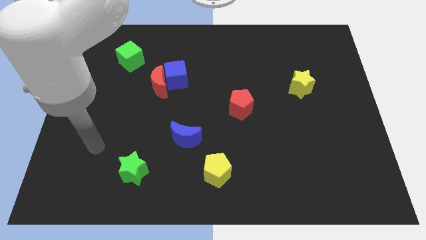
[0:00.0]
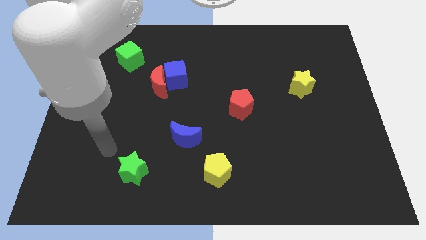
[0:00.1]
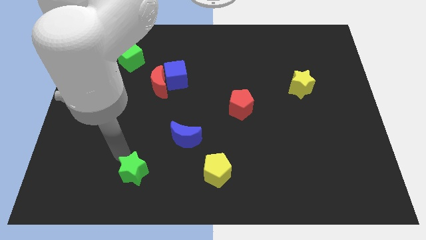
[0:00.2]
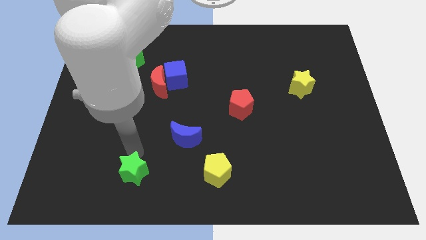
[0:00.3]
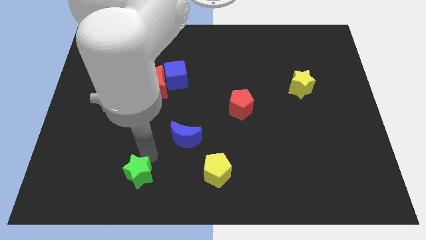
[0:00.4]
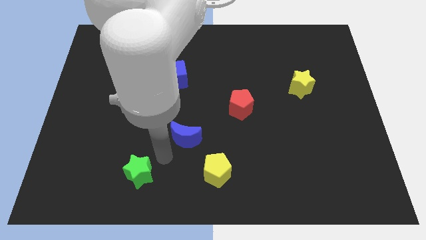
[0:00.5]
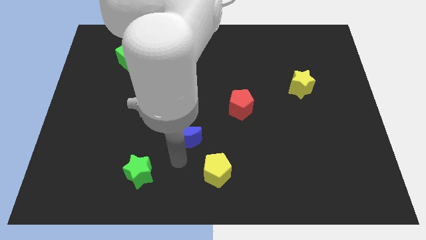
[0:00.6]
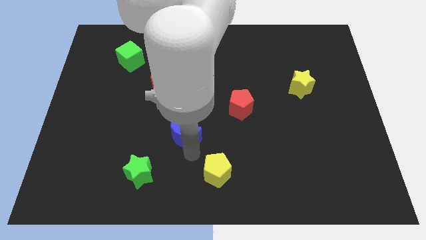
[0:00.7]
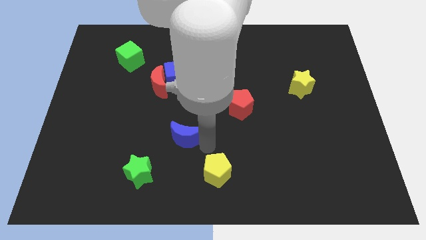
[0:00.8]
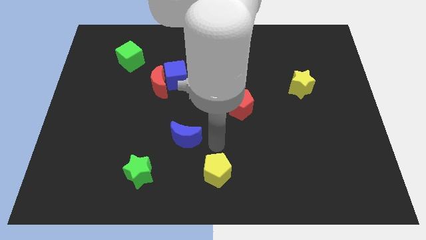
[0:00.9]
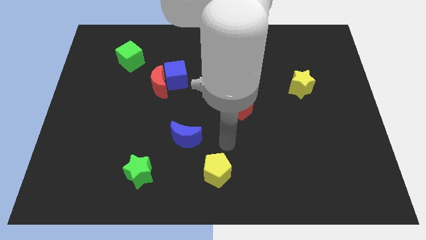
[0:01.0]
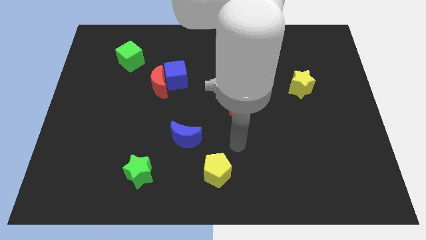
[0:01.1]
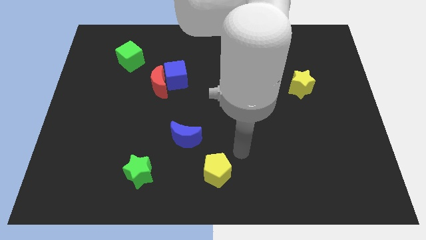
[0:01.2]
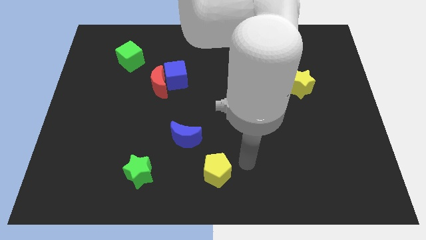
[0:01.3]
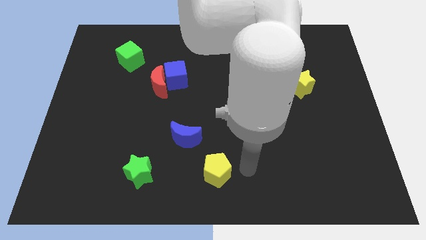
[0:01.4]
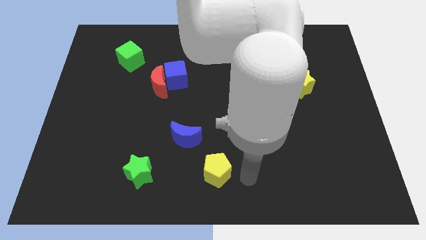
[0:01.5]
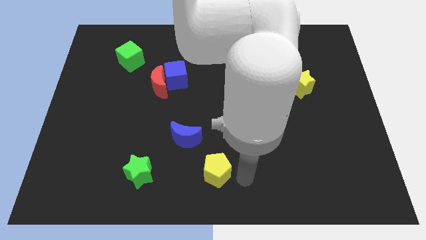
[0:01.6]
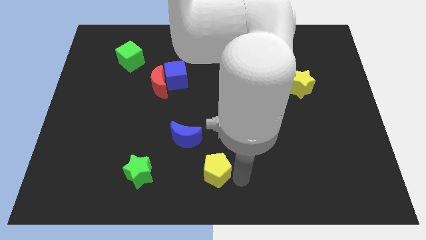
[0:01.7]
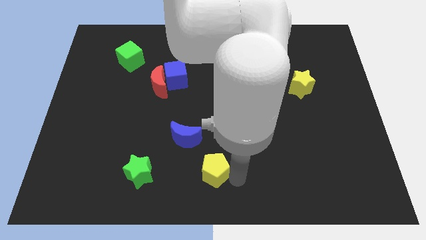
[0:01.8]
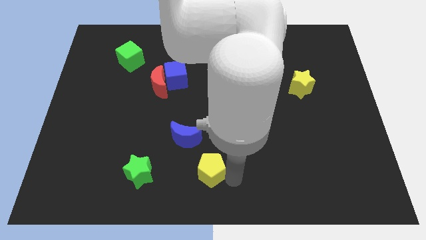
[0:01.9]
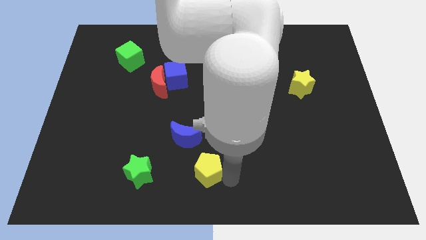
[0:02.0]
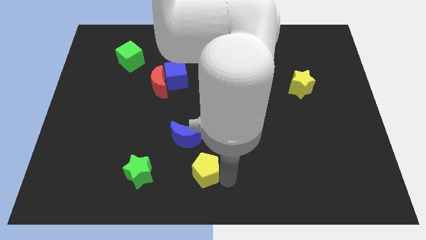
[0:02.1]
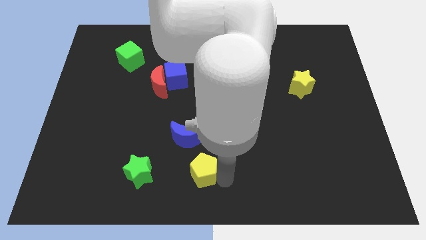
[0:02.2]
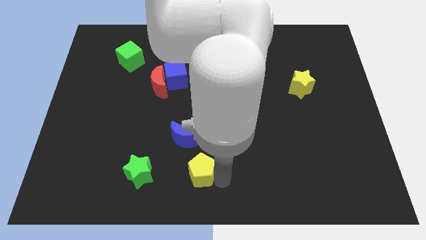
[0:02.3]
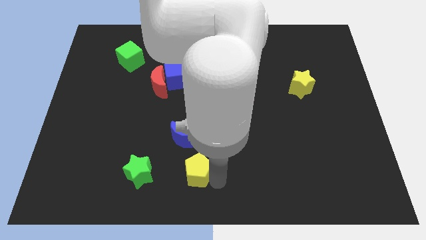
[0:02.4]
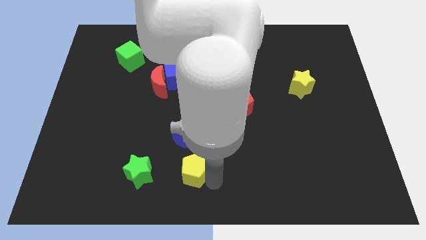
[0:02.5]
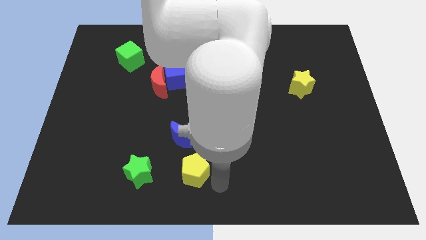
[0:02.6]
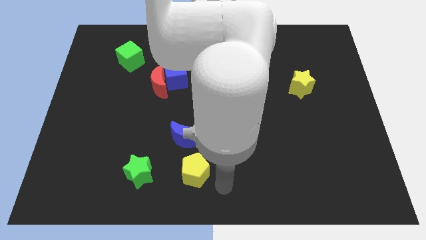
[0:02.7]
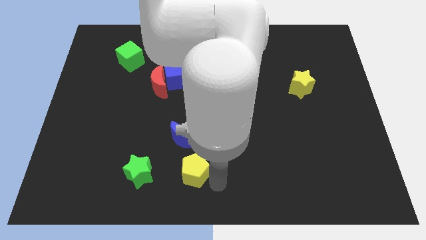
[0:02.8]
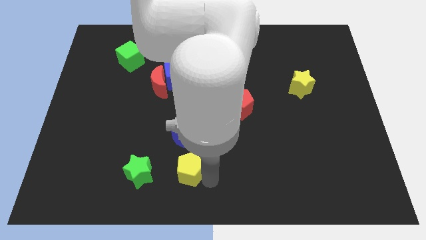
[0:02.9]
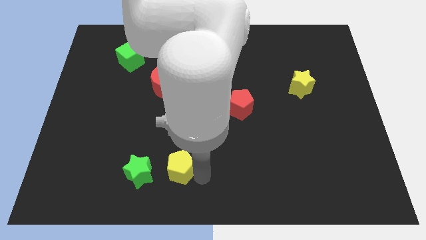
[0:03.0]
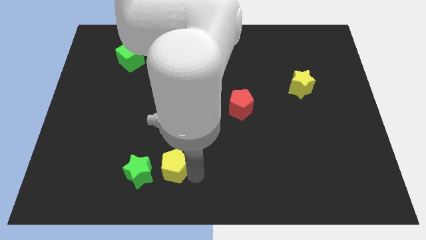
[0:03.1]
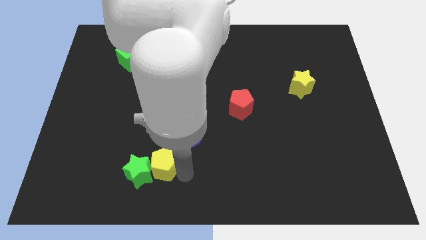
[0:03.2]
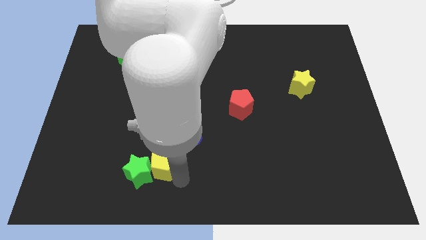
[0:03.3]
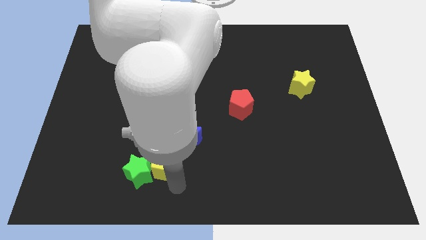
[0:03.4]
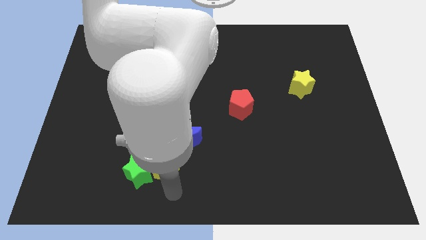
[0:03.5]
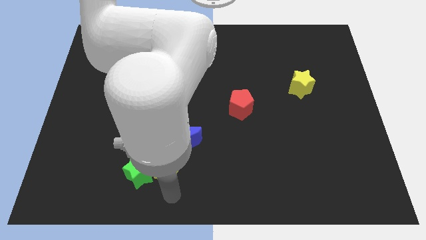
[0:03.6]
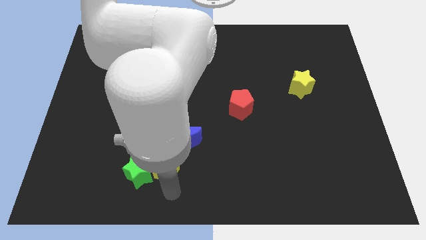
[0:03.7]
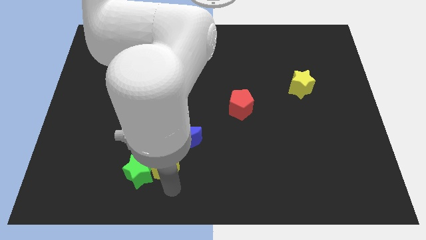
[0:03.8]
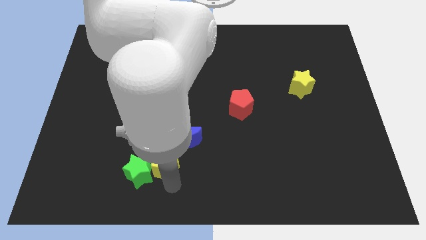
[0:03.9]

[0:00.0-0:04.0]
slide the yellow pentagon upwards and left a bit

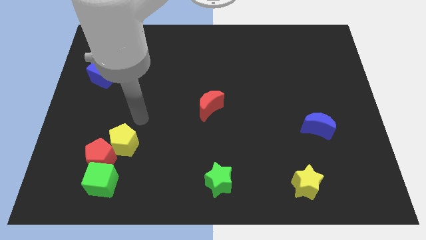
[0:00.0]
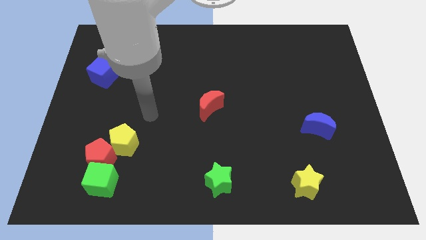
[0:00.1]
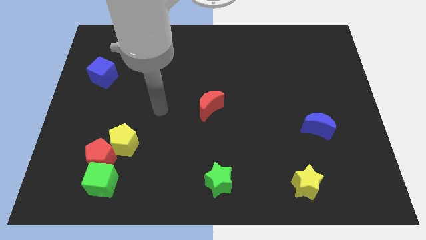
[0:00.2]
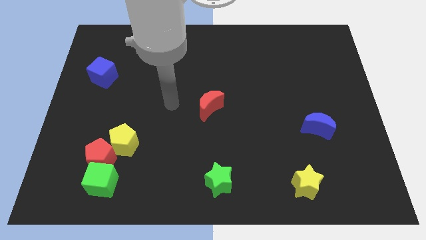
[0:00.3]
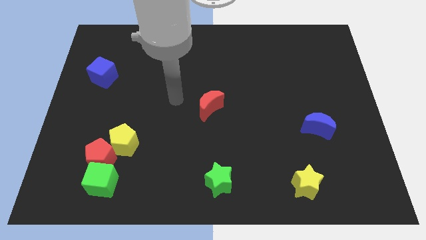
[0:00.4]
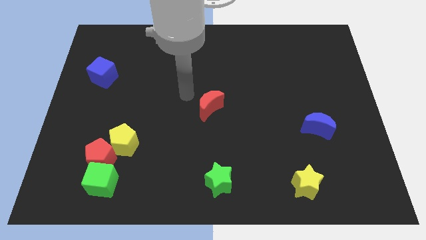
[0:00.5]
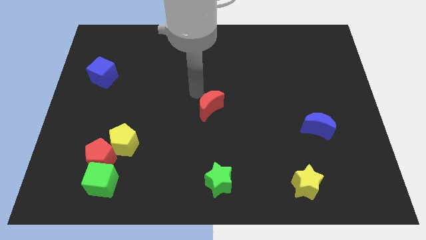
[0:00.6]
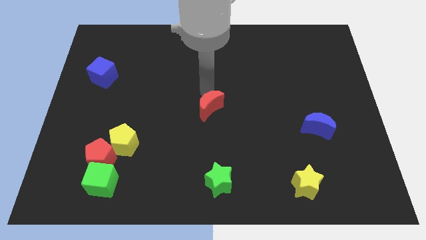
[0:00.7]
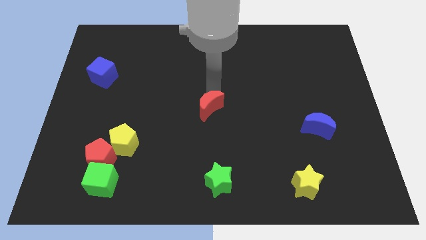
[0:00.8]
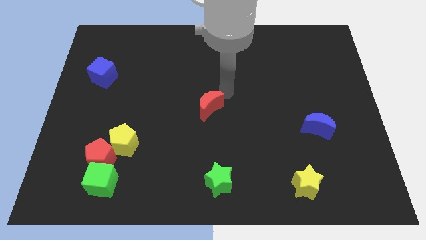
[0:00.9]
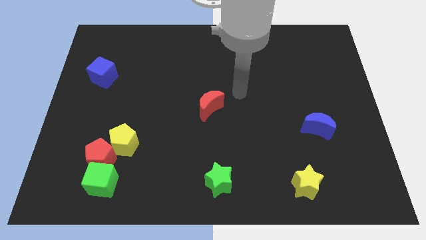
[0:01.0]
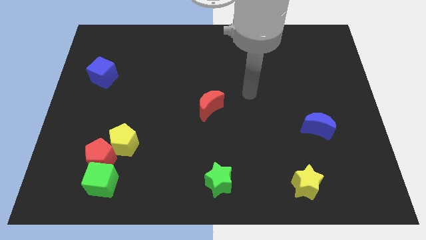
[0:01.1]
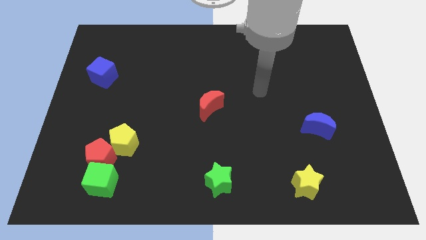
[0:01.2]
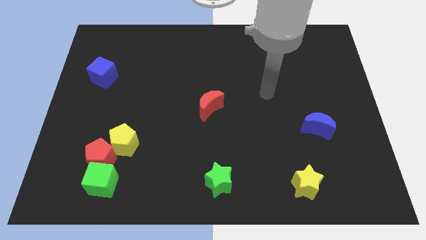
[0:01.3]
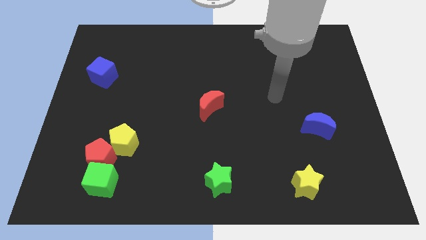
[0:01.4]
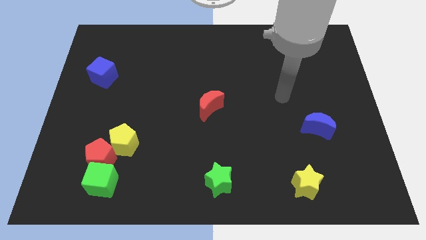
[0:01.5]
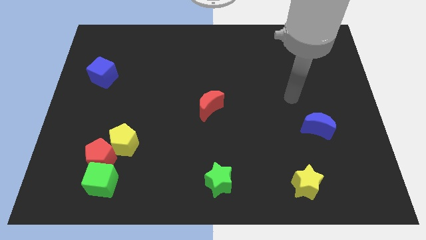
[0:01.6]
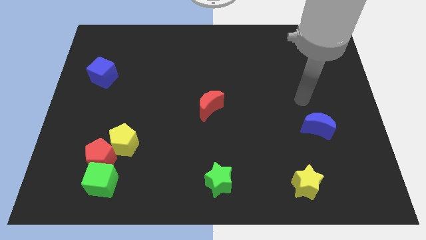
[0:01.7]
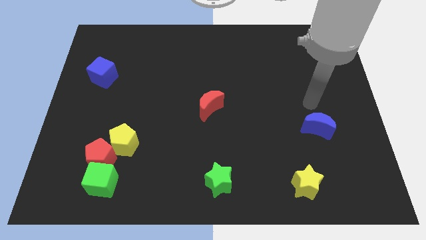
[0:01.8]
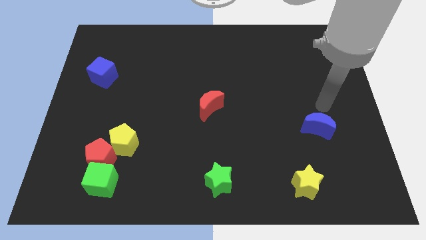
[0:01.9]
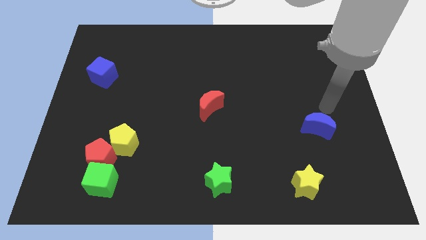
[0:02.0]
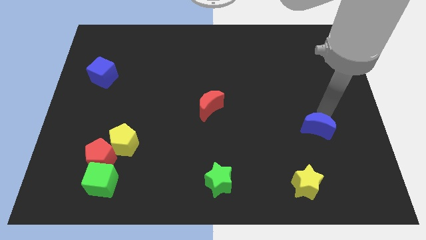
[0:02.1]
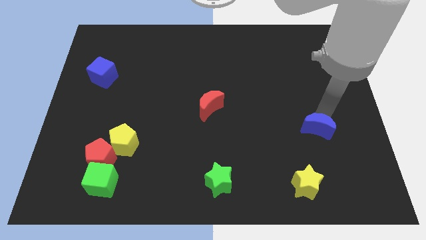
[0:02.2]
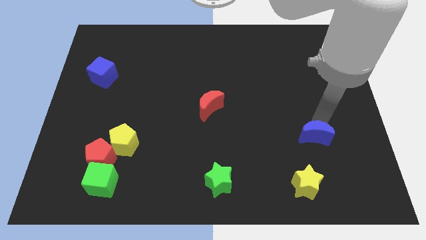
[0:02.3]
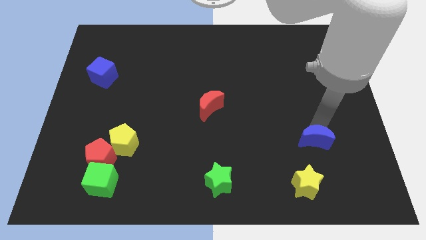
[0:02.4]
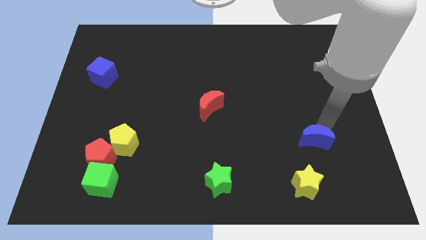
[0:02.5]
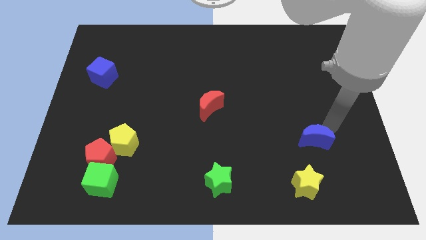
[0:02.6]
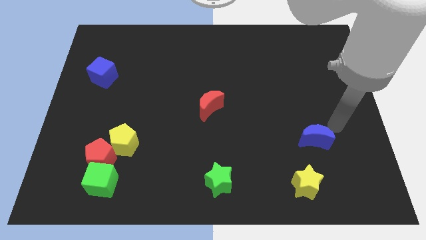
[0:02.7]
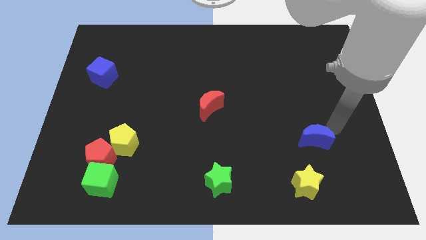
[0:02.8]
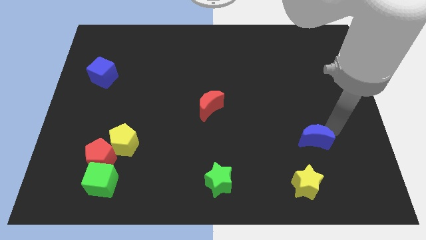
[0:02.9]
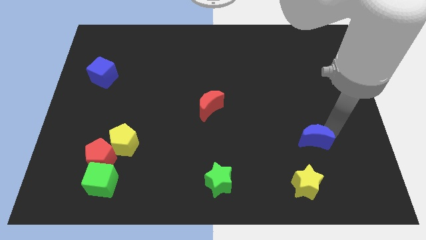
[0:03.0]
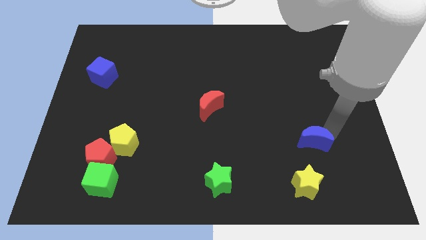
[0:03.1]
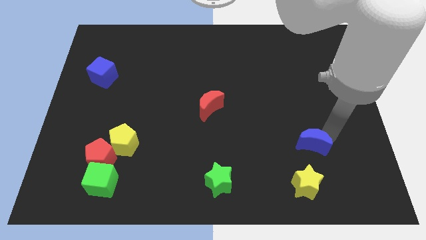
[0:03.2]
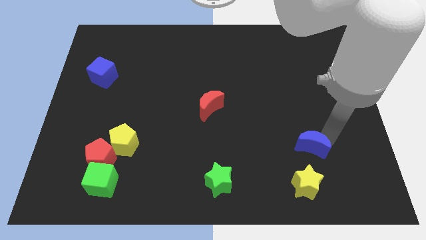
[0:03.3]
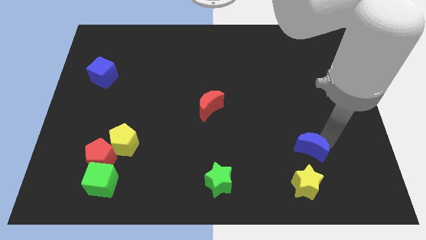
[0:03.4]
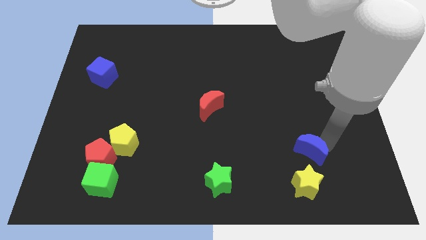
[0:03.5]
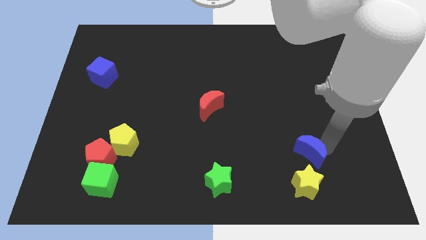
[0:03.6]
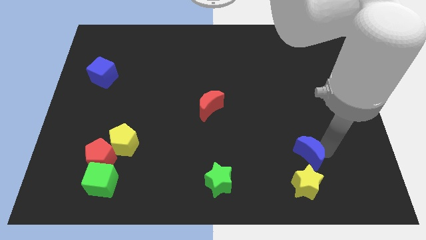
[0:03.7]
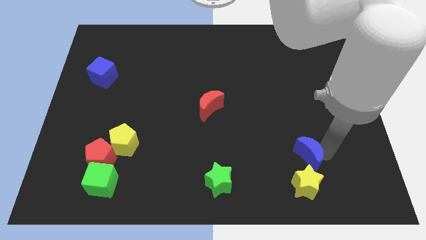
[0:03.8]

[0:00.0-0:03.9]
slightly move the blue moon down and then left
